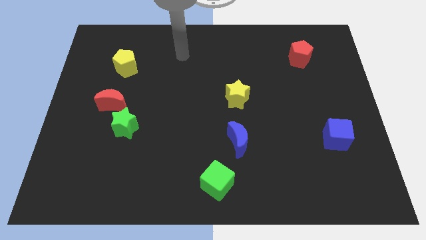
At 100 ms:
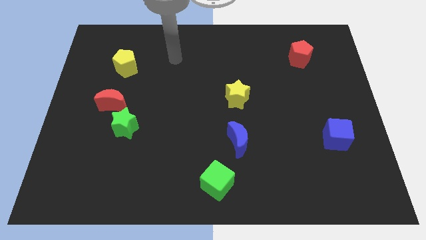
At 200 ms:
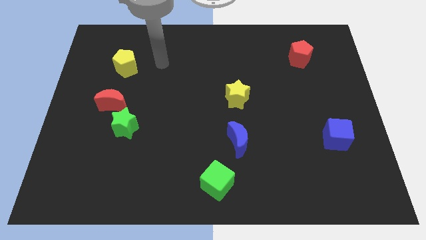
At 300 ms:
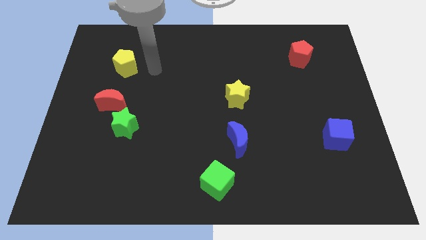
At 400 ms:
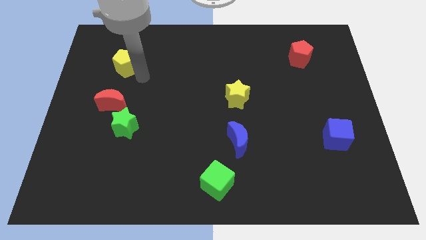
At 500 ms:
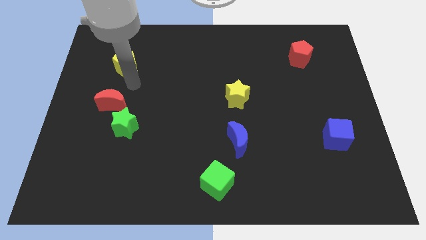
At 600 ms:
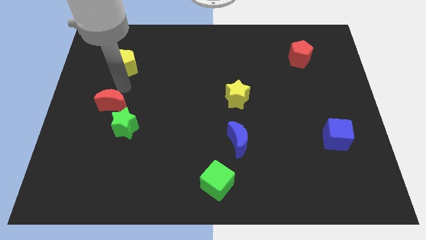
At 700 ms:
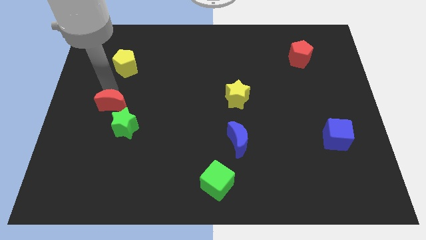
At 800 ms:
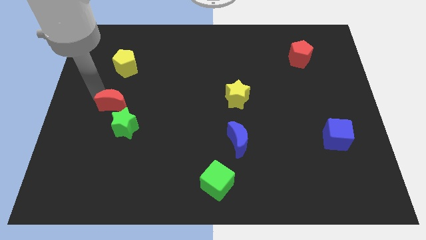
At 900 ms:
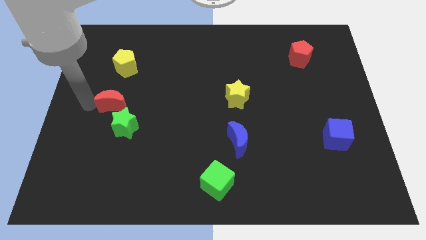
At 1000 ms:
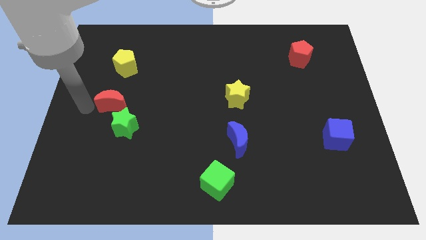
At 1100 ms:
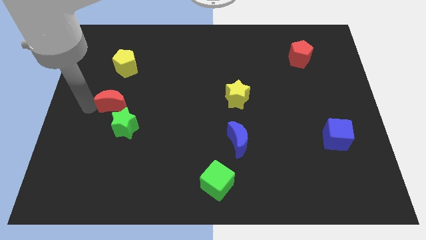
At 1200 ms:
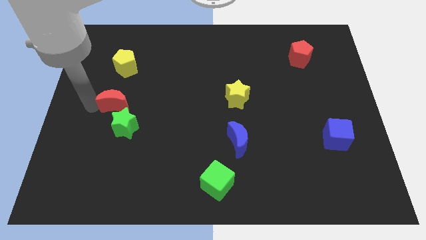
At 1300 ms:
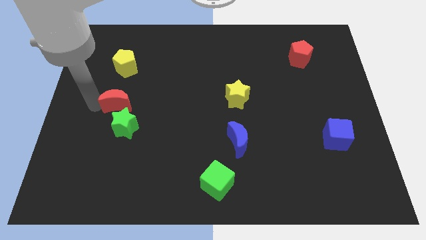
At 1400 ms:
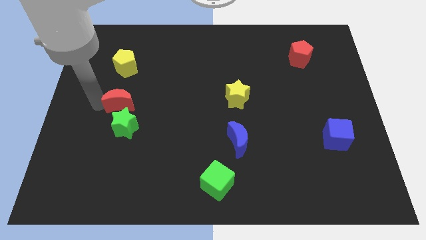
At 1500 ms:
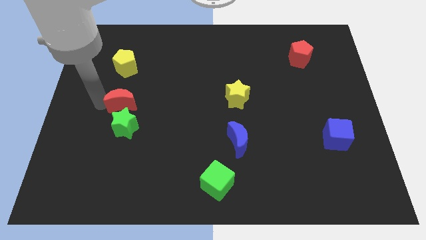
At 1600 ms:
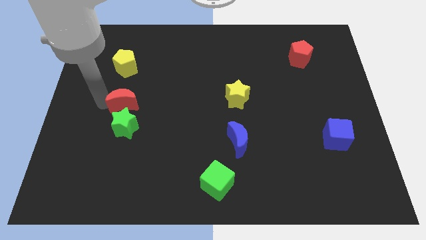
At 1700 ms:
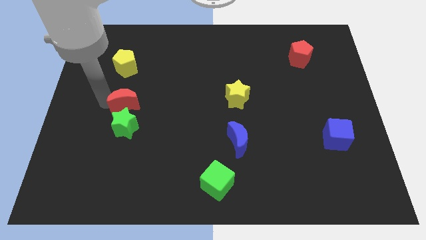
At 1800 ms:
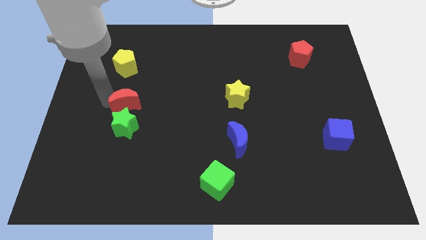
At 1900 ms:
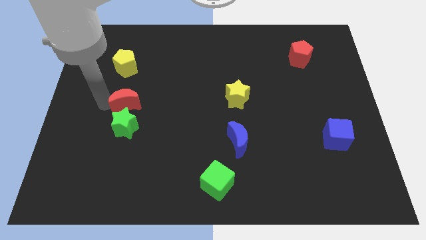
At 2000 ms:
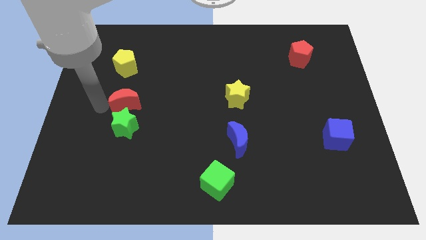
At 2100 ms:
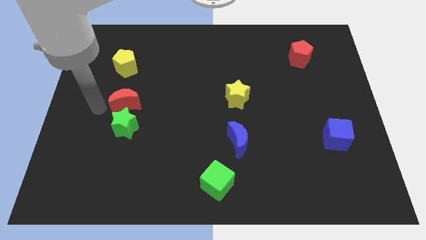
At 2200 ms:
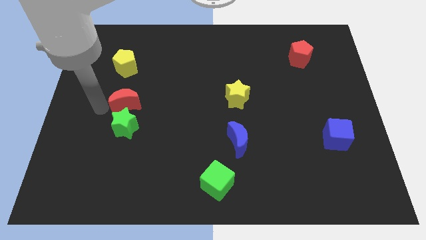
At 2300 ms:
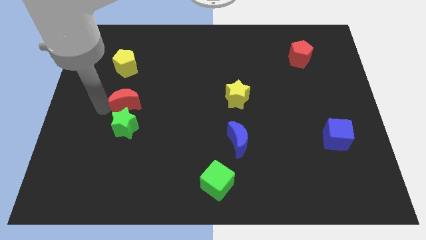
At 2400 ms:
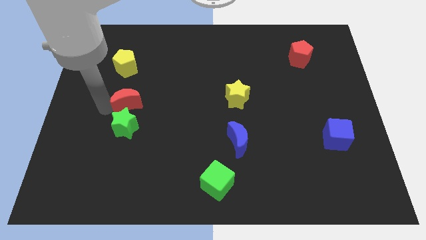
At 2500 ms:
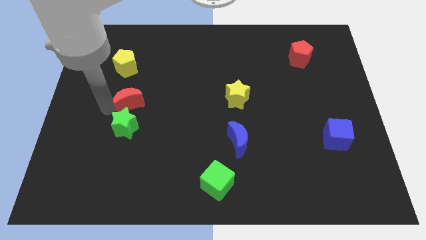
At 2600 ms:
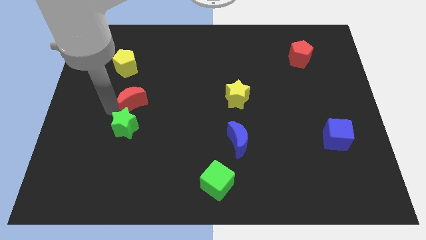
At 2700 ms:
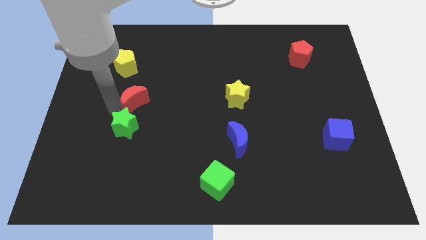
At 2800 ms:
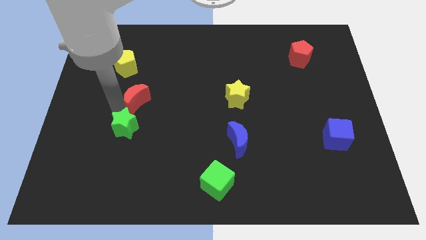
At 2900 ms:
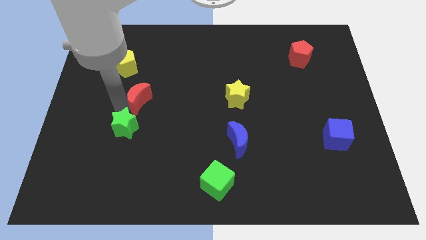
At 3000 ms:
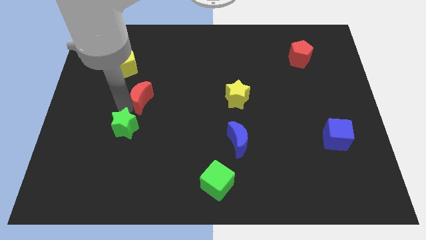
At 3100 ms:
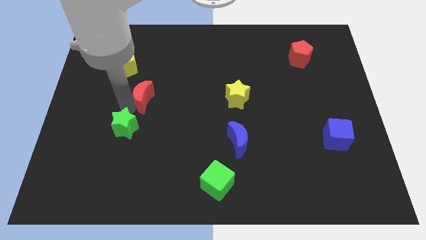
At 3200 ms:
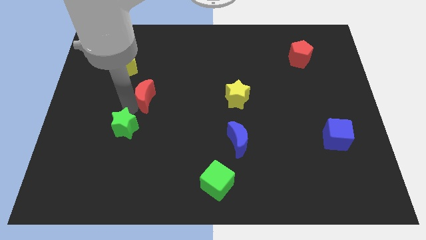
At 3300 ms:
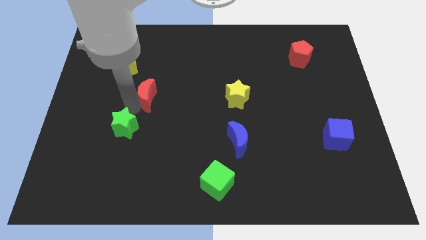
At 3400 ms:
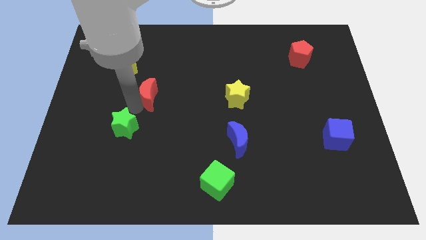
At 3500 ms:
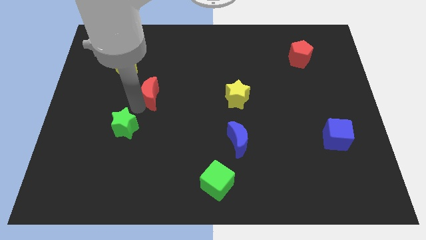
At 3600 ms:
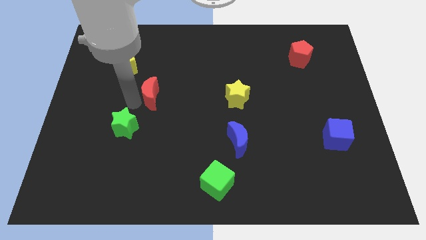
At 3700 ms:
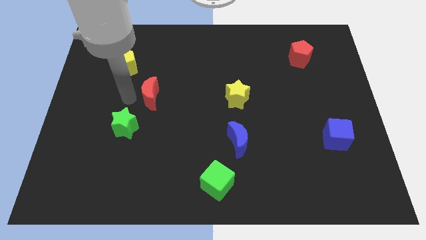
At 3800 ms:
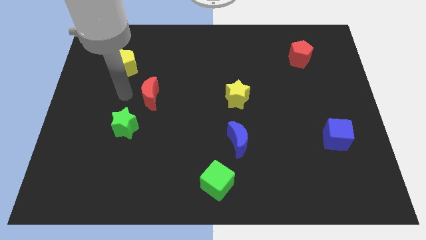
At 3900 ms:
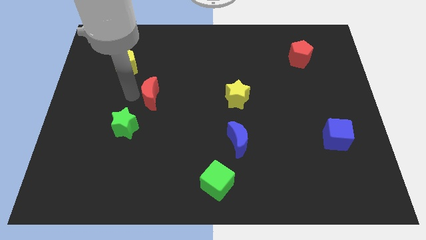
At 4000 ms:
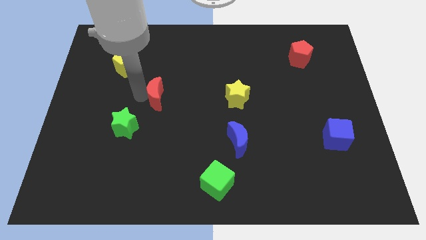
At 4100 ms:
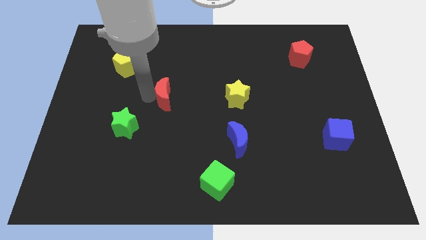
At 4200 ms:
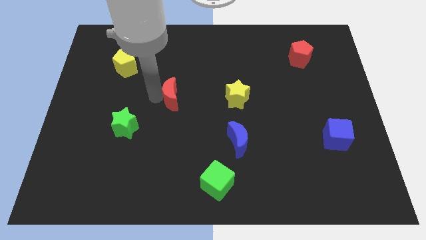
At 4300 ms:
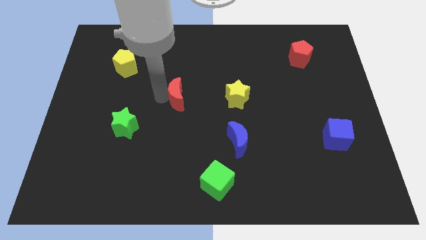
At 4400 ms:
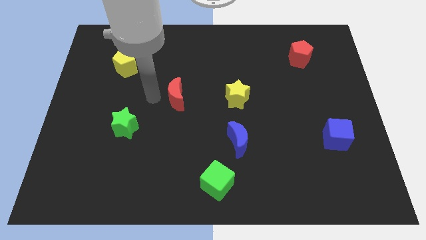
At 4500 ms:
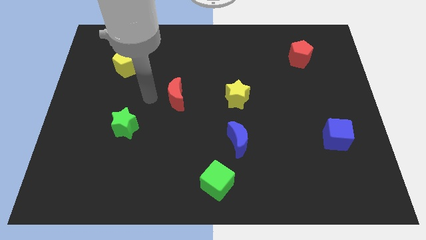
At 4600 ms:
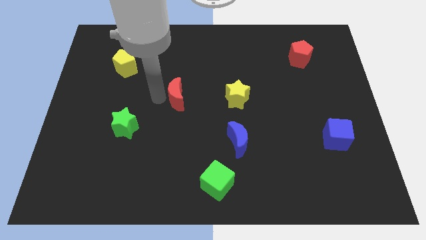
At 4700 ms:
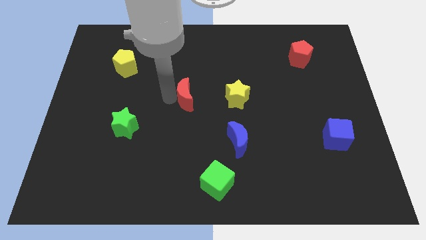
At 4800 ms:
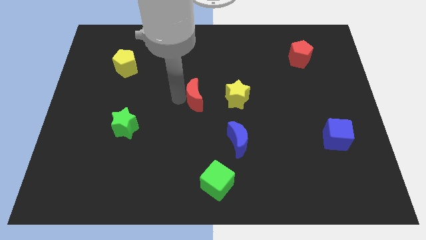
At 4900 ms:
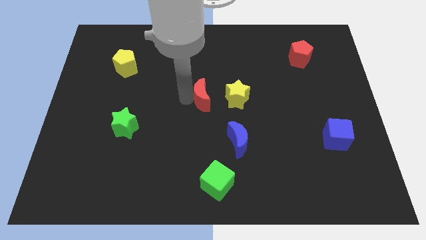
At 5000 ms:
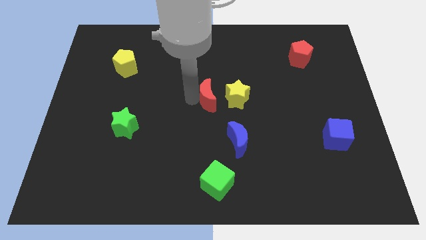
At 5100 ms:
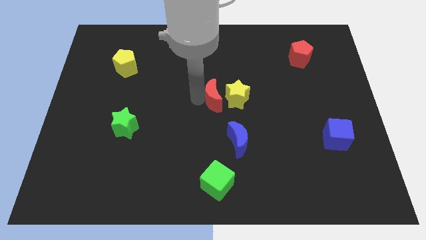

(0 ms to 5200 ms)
put the red moon towards the yellow star

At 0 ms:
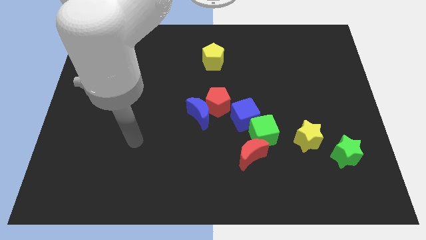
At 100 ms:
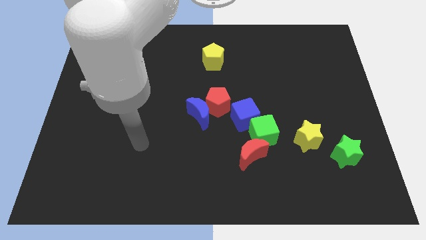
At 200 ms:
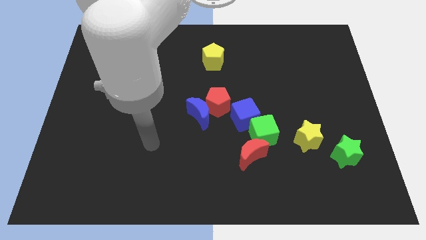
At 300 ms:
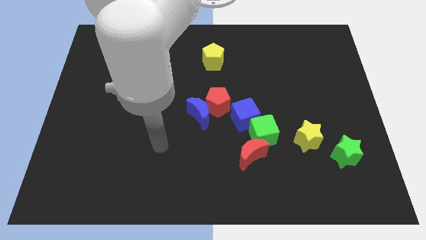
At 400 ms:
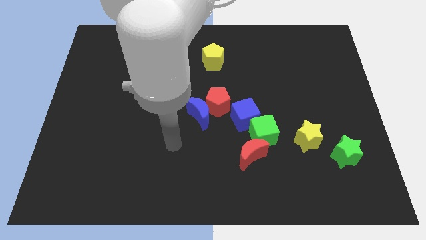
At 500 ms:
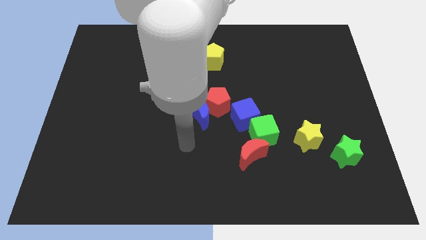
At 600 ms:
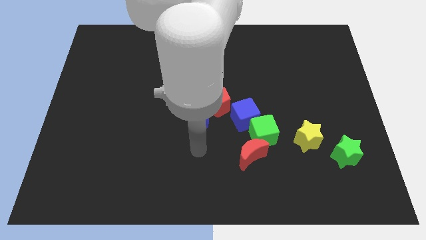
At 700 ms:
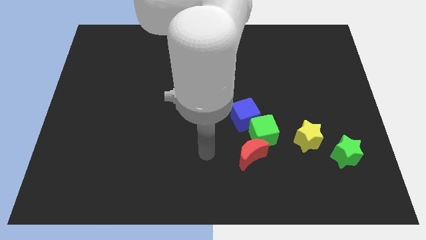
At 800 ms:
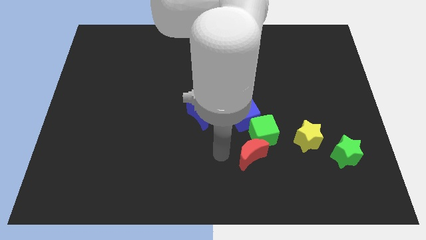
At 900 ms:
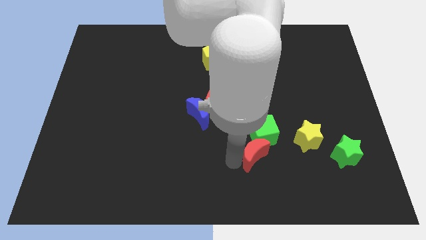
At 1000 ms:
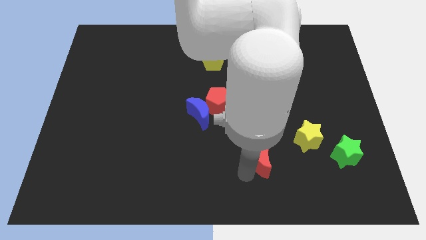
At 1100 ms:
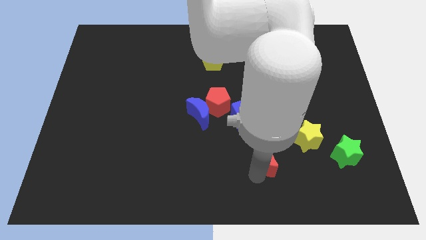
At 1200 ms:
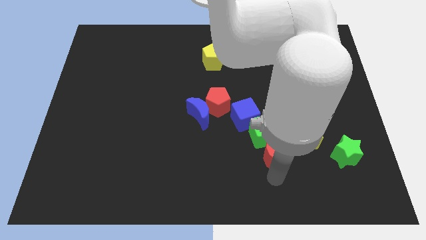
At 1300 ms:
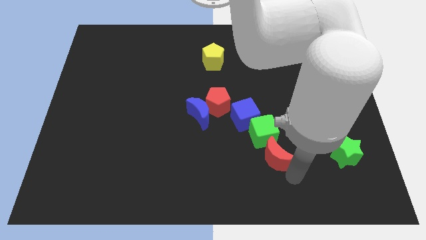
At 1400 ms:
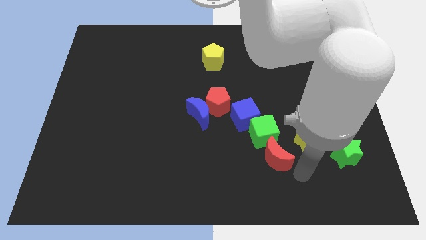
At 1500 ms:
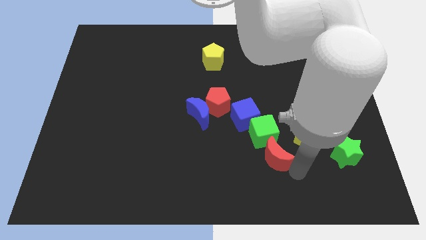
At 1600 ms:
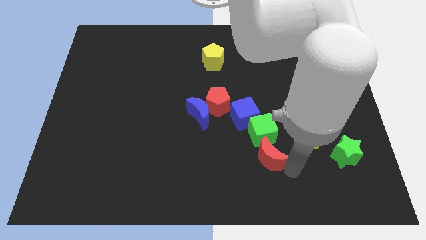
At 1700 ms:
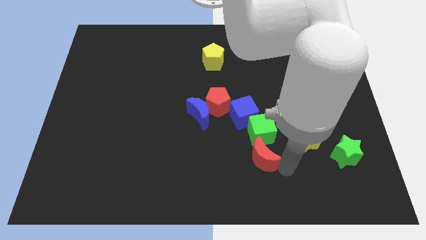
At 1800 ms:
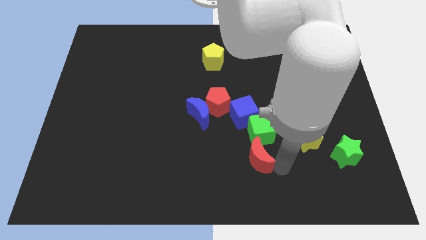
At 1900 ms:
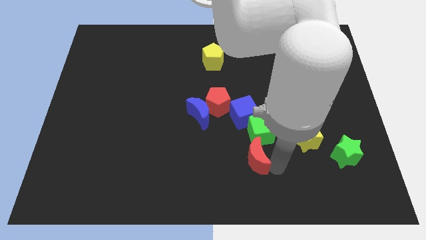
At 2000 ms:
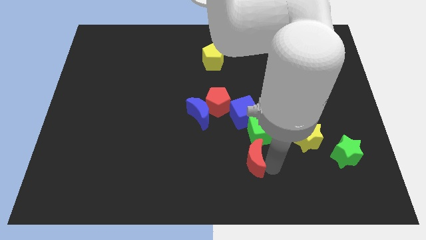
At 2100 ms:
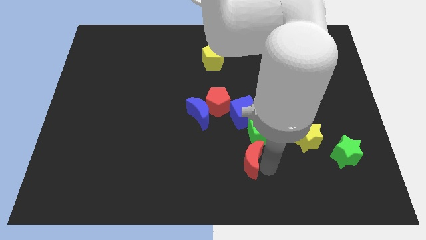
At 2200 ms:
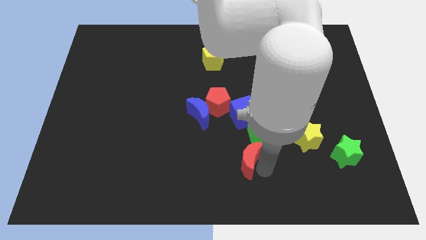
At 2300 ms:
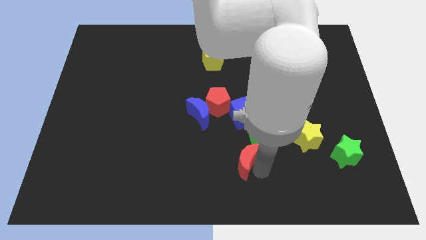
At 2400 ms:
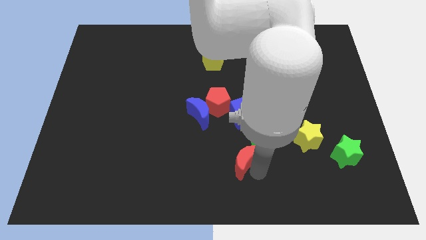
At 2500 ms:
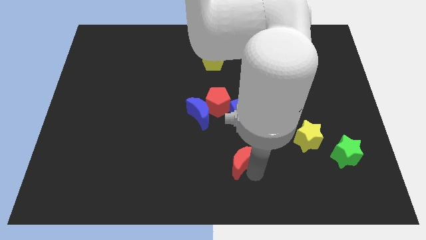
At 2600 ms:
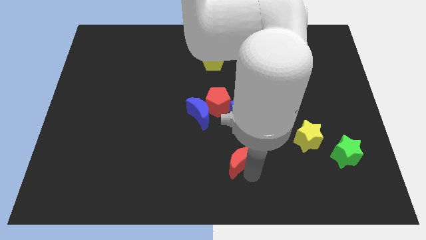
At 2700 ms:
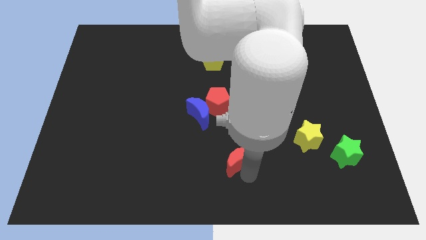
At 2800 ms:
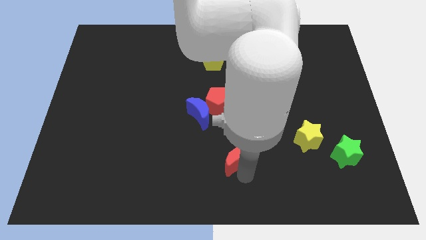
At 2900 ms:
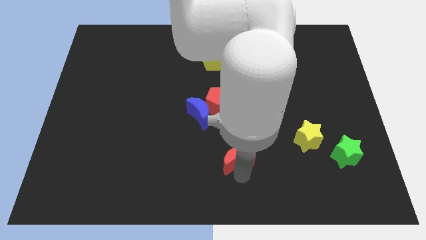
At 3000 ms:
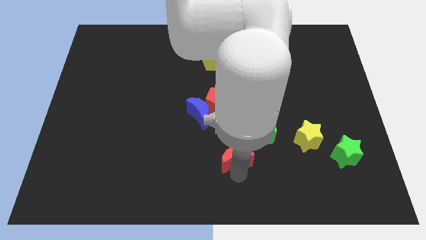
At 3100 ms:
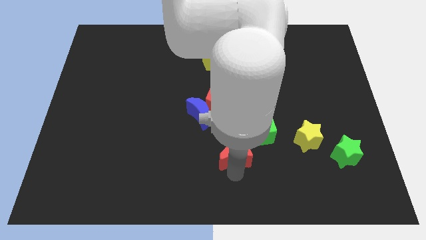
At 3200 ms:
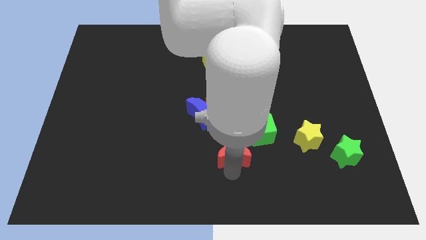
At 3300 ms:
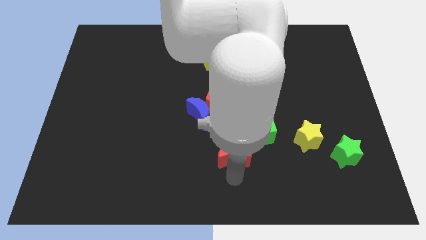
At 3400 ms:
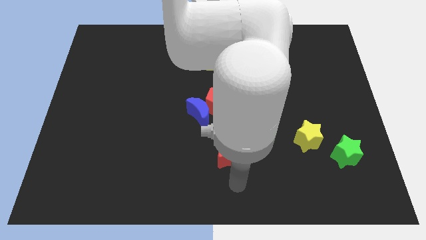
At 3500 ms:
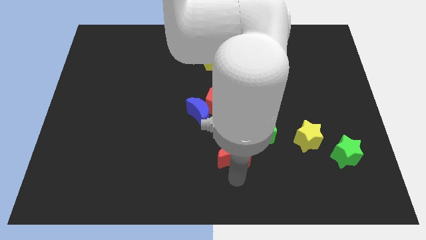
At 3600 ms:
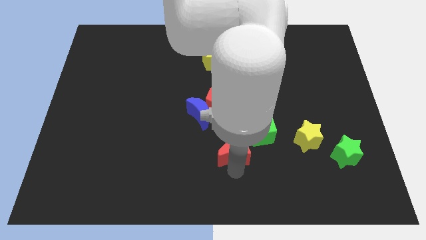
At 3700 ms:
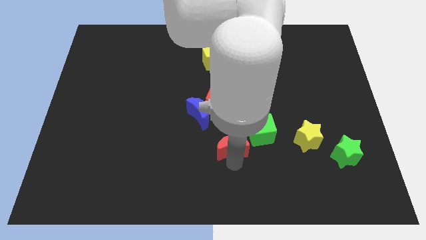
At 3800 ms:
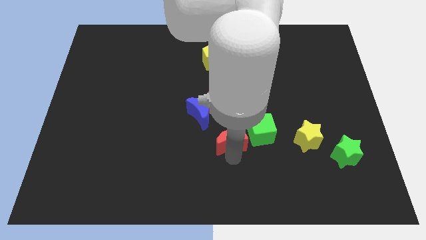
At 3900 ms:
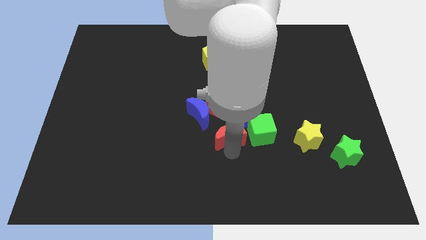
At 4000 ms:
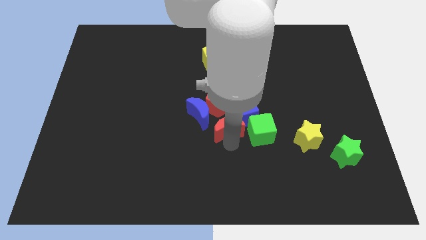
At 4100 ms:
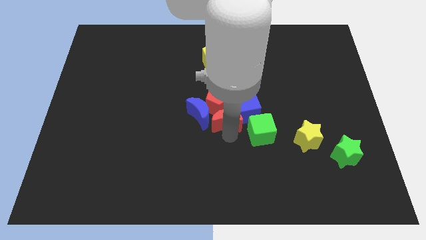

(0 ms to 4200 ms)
put the red moon next to the red pentagon
